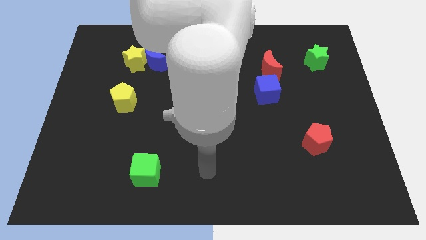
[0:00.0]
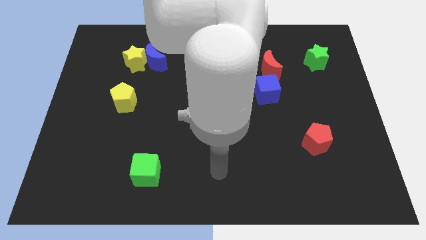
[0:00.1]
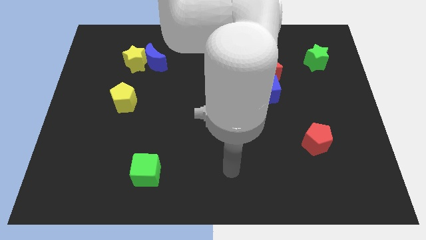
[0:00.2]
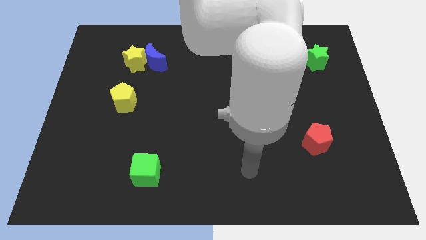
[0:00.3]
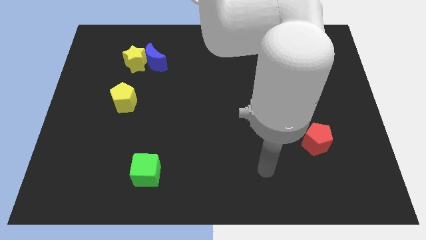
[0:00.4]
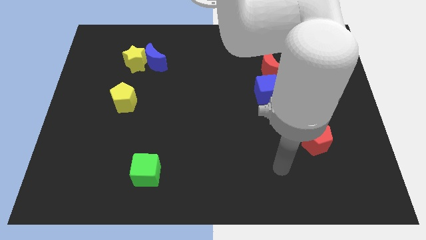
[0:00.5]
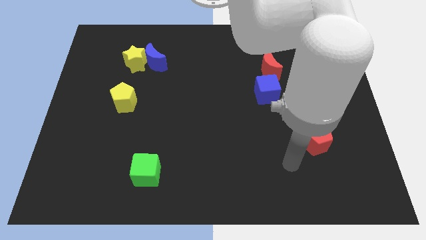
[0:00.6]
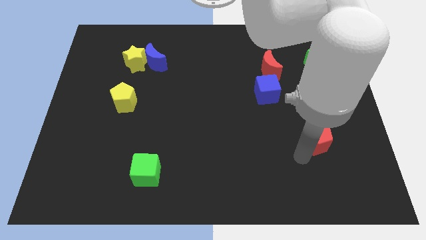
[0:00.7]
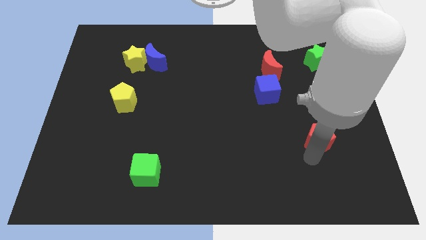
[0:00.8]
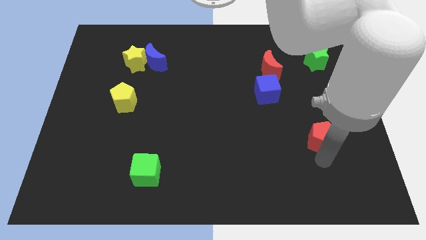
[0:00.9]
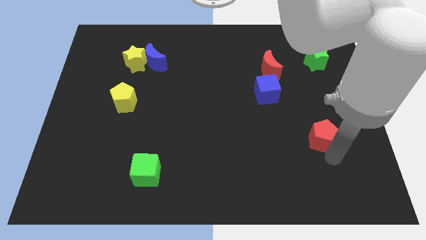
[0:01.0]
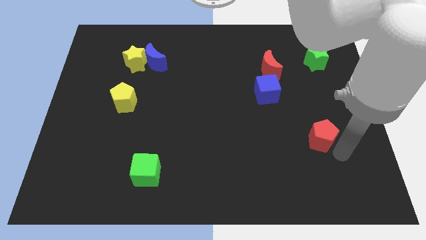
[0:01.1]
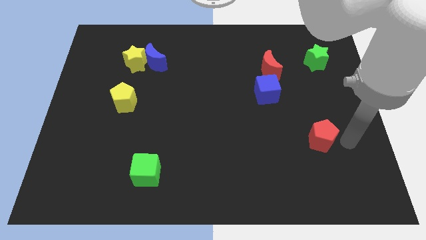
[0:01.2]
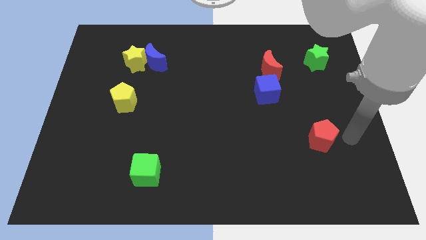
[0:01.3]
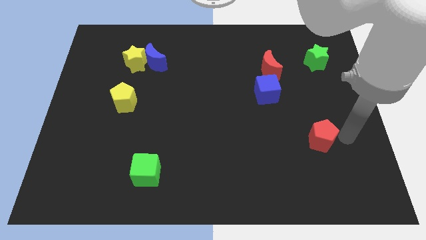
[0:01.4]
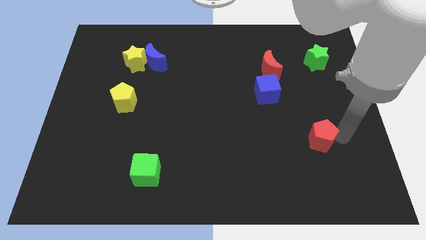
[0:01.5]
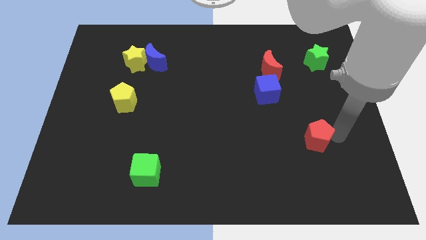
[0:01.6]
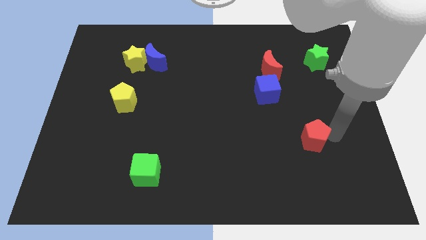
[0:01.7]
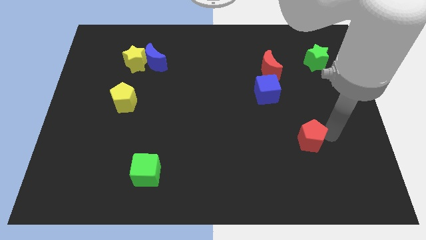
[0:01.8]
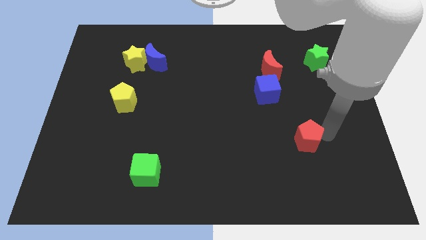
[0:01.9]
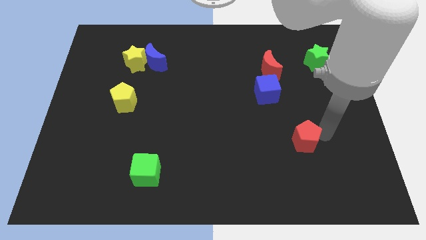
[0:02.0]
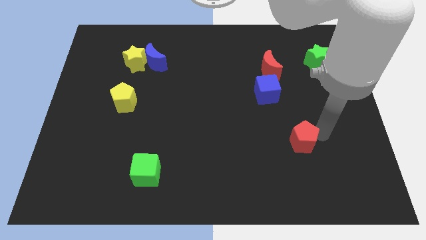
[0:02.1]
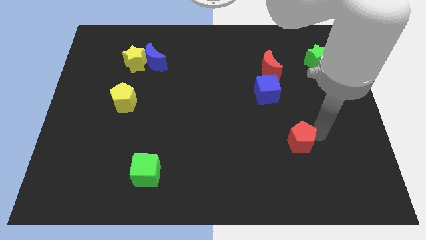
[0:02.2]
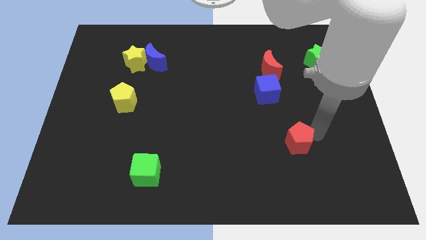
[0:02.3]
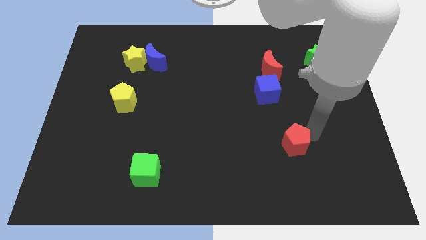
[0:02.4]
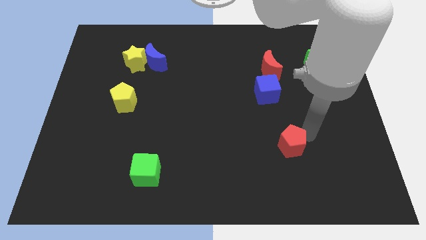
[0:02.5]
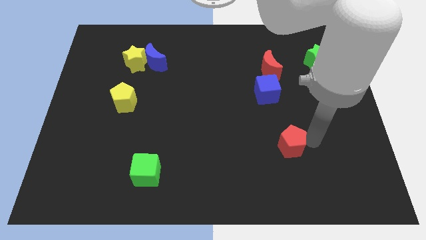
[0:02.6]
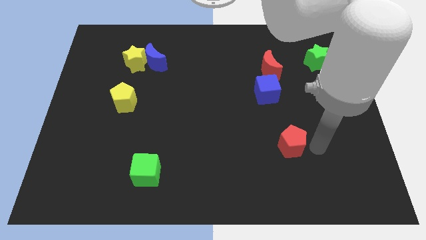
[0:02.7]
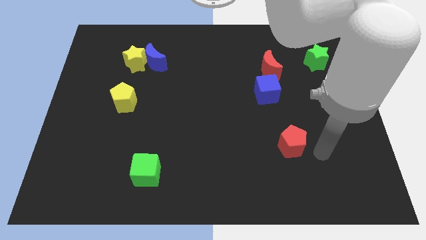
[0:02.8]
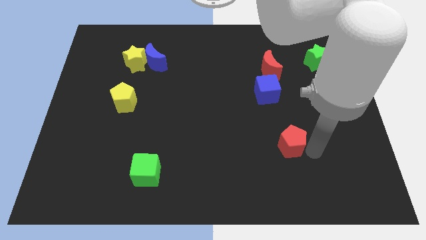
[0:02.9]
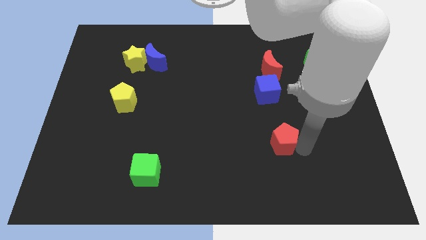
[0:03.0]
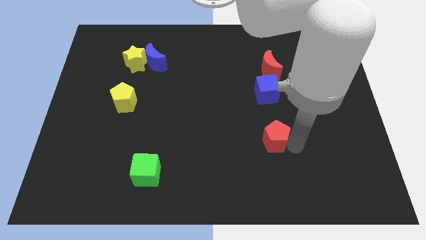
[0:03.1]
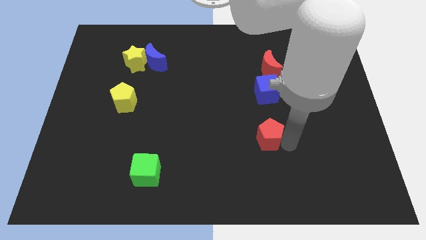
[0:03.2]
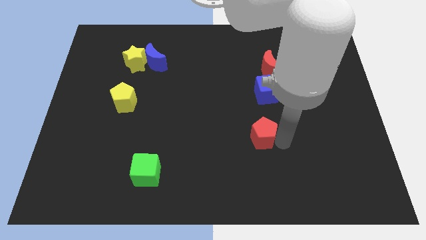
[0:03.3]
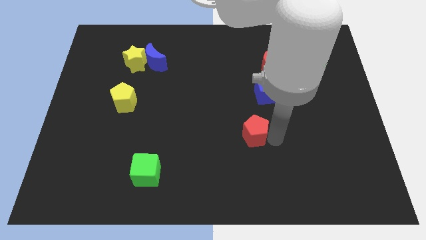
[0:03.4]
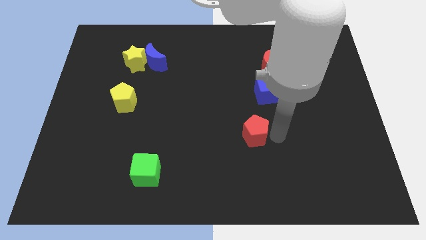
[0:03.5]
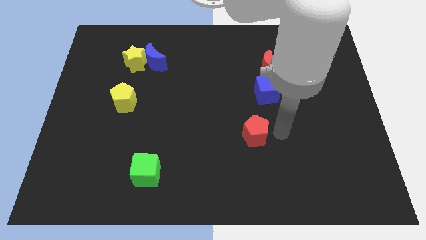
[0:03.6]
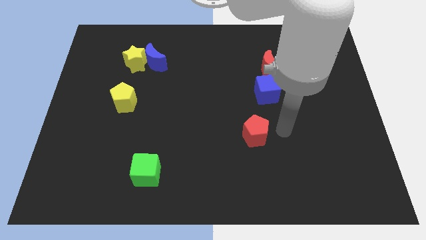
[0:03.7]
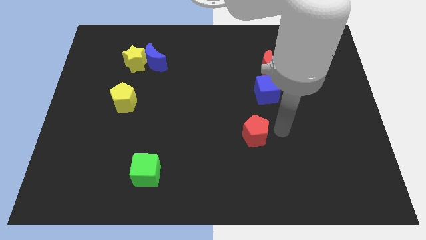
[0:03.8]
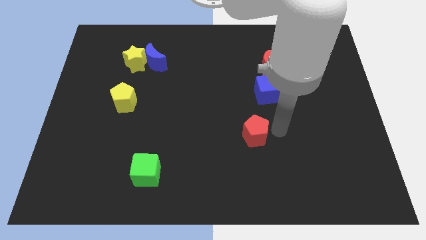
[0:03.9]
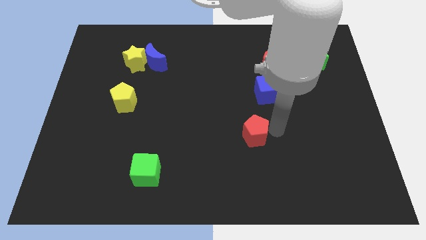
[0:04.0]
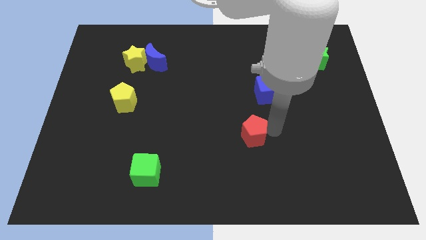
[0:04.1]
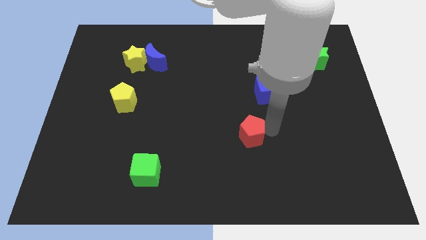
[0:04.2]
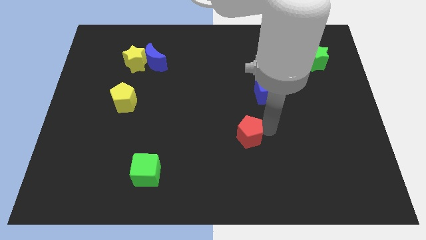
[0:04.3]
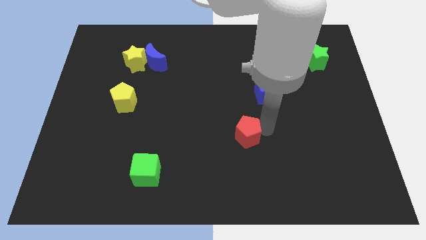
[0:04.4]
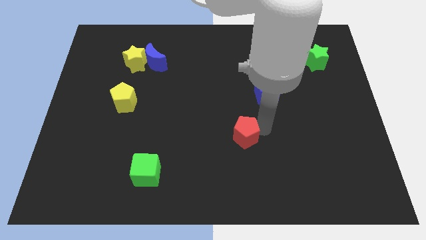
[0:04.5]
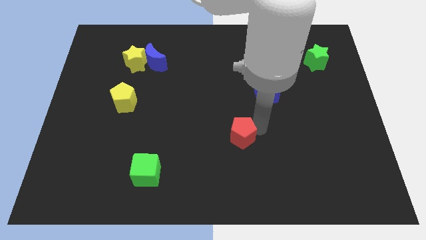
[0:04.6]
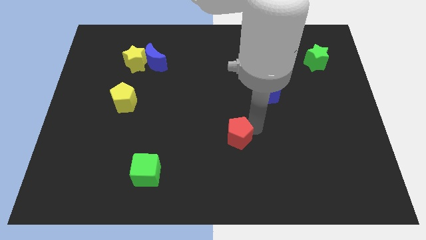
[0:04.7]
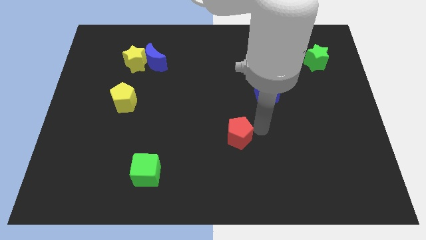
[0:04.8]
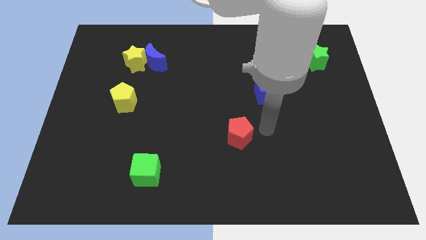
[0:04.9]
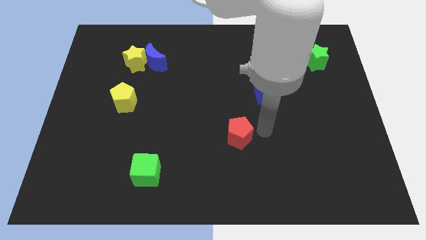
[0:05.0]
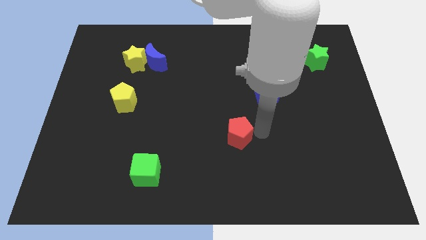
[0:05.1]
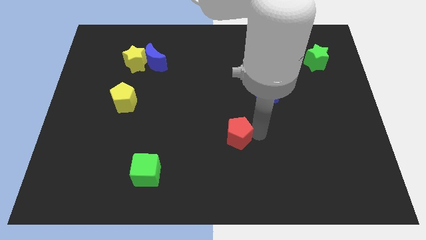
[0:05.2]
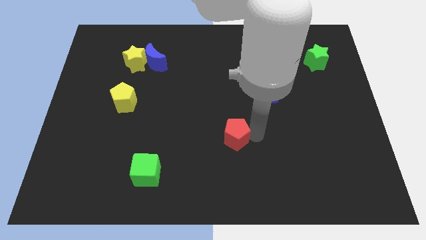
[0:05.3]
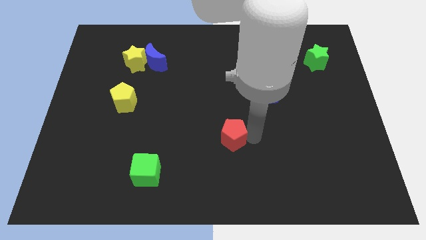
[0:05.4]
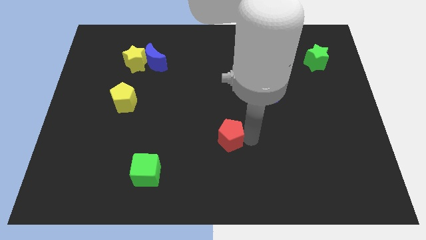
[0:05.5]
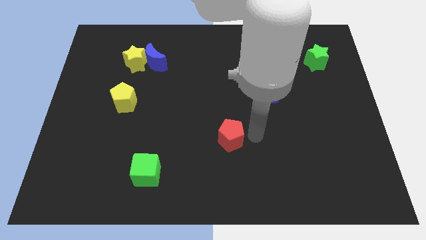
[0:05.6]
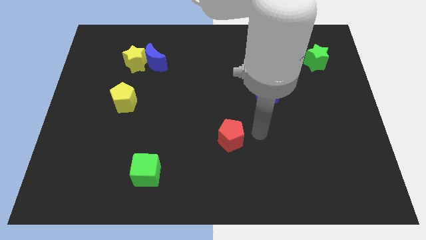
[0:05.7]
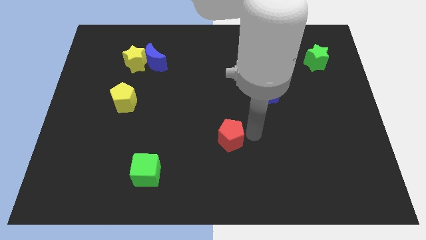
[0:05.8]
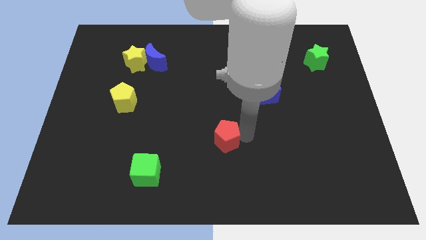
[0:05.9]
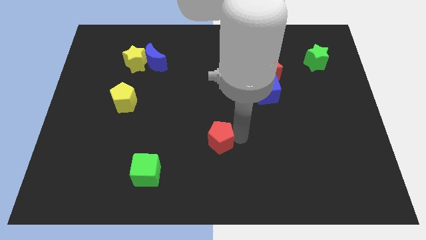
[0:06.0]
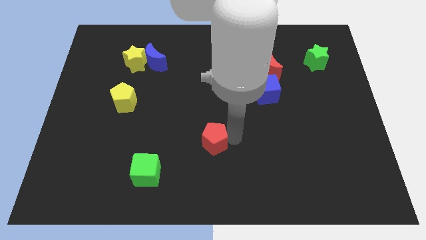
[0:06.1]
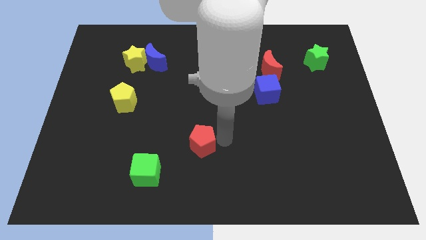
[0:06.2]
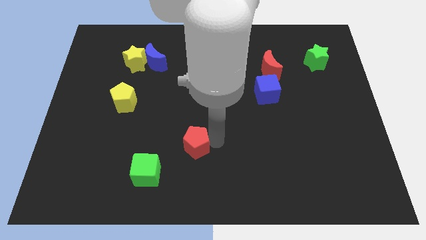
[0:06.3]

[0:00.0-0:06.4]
push the red pentagon diagonally up and to the right of the green cube

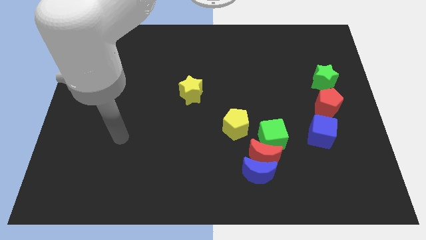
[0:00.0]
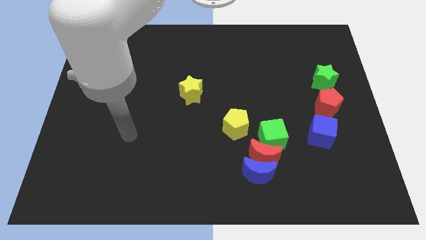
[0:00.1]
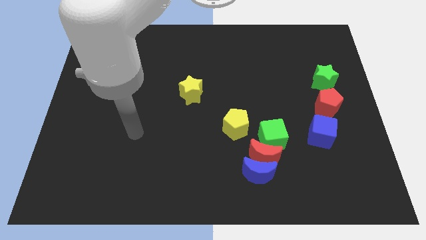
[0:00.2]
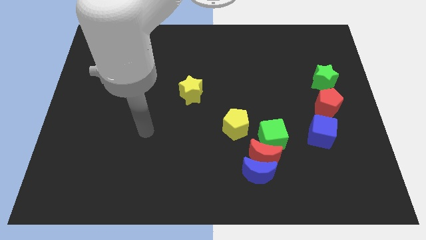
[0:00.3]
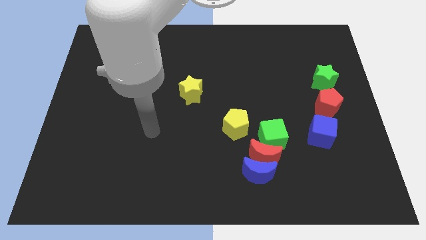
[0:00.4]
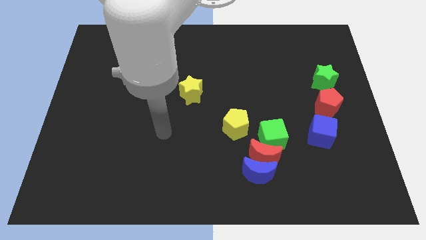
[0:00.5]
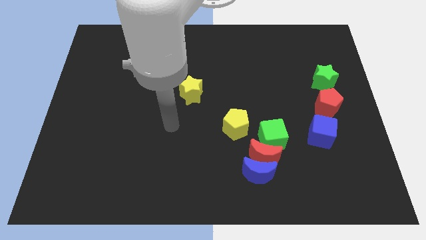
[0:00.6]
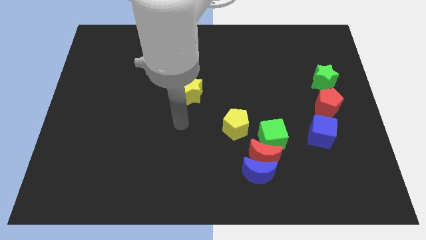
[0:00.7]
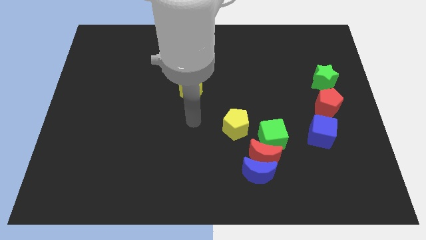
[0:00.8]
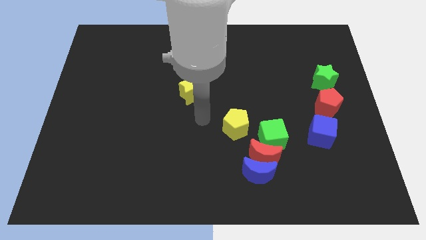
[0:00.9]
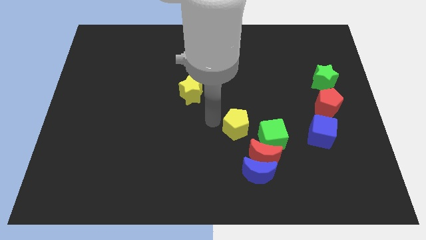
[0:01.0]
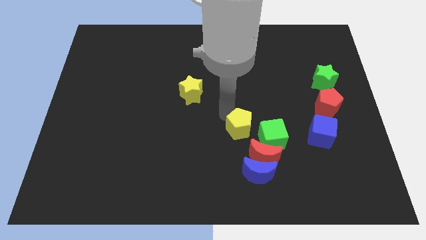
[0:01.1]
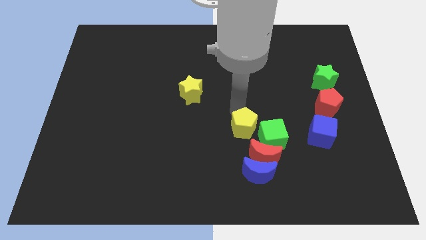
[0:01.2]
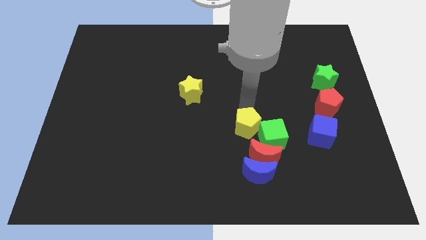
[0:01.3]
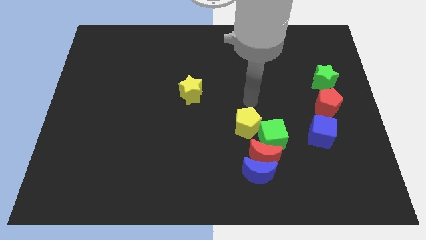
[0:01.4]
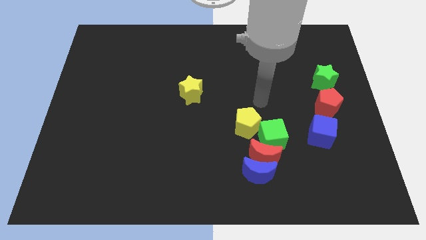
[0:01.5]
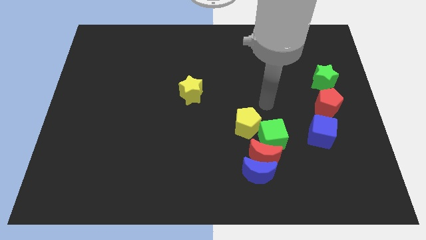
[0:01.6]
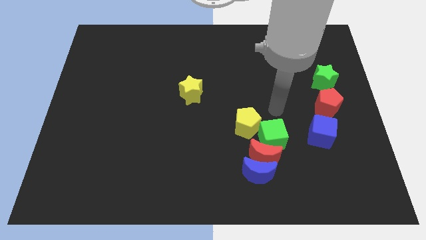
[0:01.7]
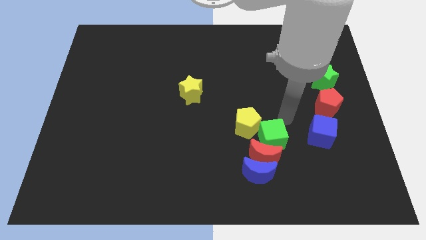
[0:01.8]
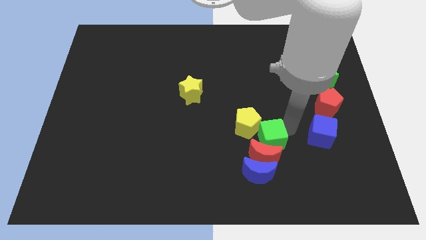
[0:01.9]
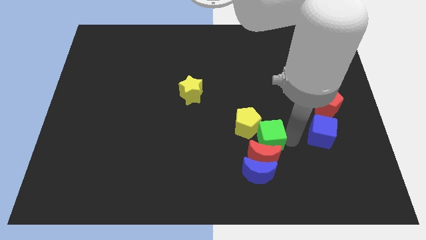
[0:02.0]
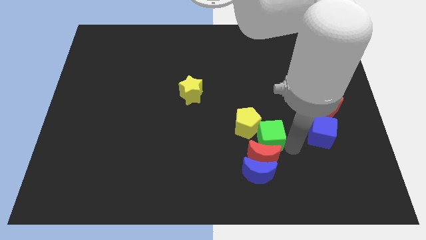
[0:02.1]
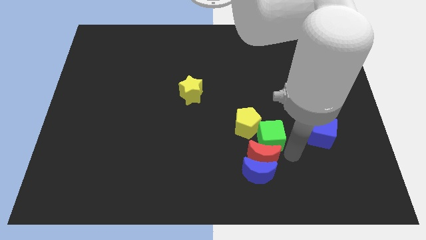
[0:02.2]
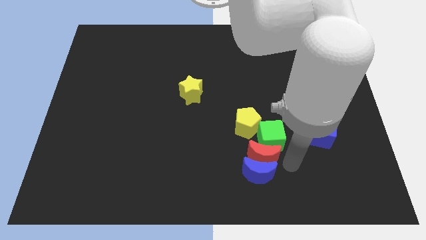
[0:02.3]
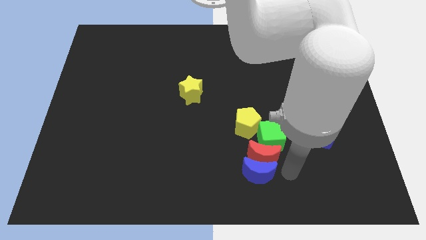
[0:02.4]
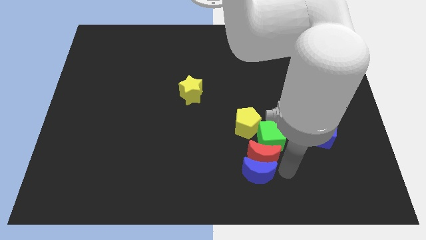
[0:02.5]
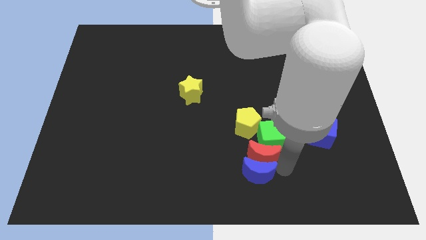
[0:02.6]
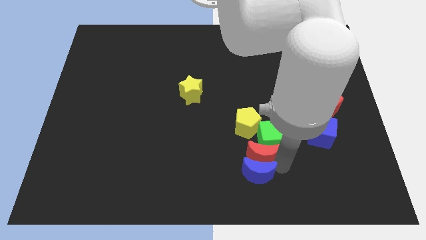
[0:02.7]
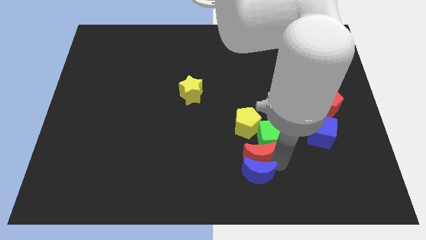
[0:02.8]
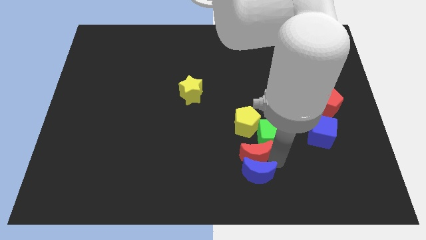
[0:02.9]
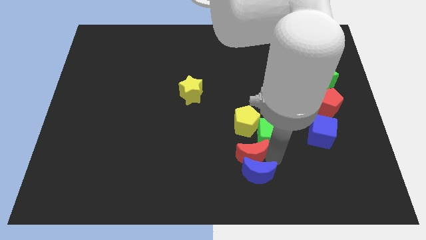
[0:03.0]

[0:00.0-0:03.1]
push the red moon to the left of the green cube
